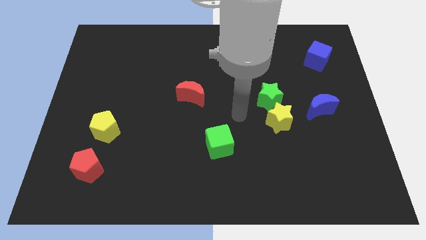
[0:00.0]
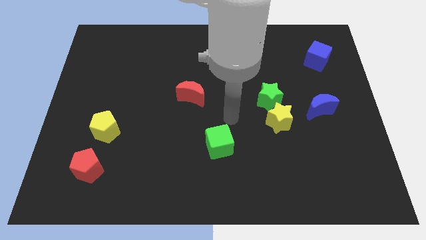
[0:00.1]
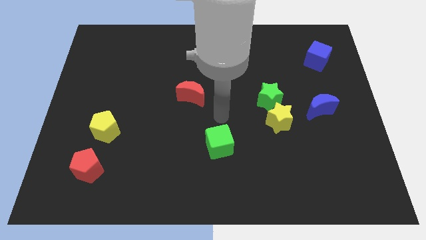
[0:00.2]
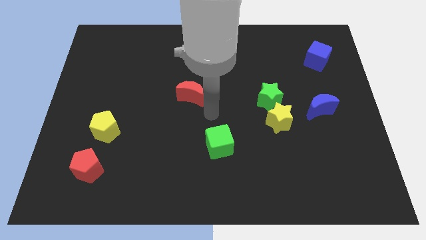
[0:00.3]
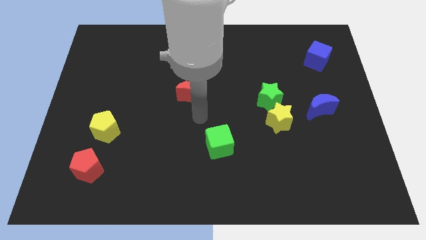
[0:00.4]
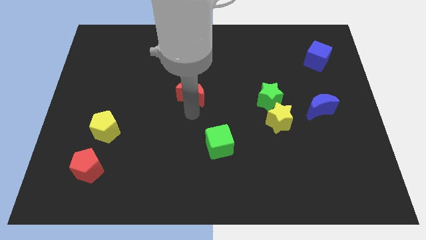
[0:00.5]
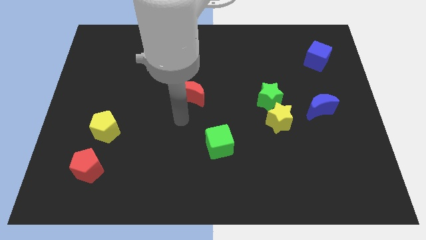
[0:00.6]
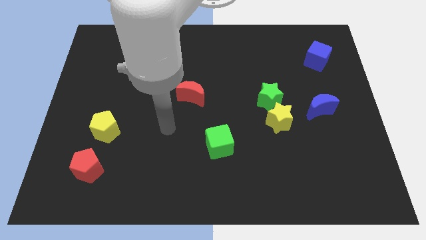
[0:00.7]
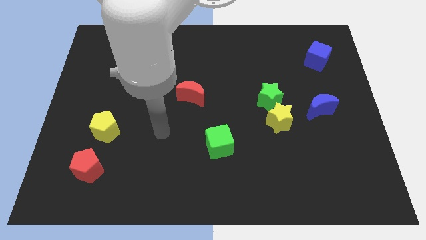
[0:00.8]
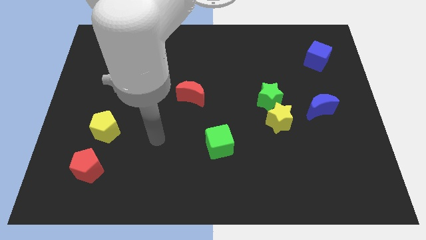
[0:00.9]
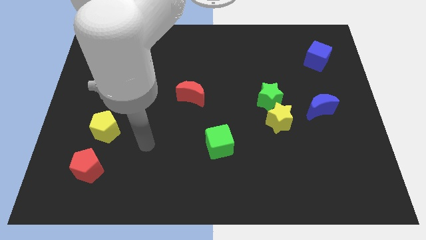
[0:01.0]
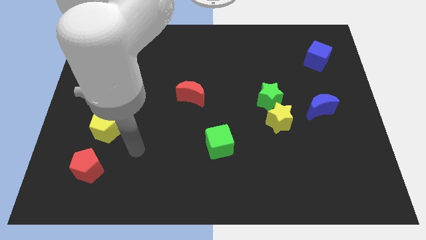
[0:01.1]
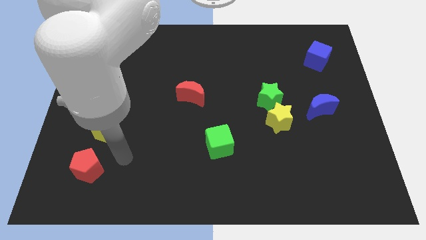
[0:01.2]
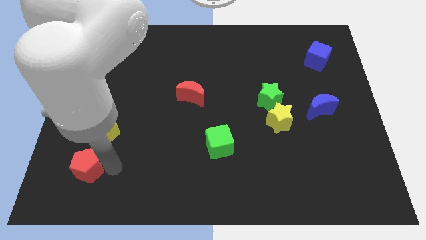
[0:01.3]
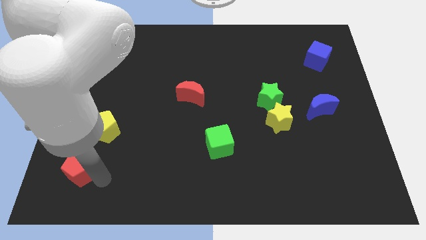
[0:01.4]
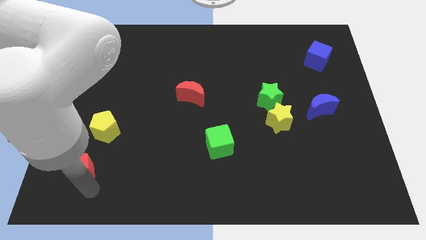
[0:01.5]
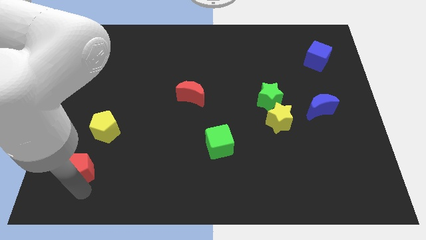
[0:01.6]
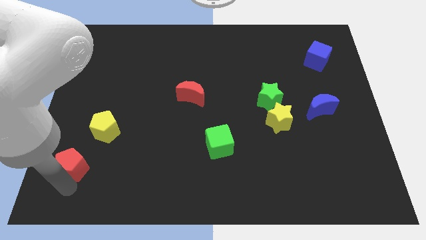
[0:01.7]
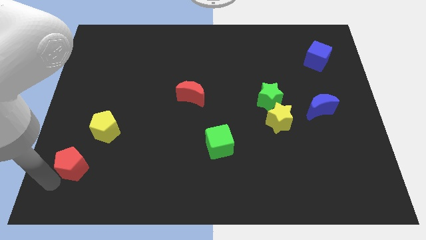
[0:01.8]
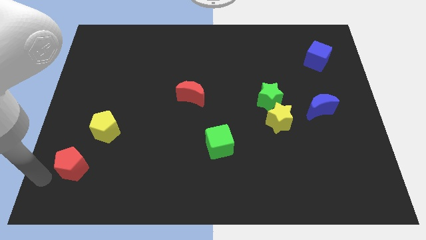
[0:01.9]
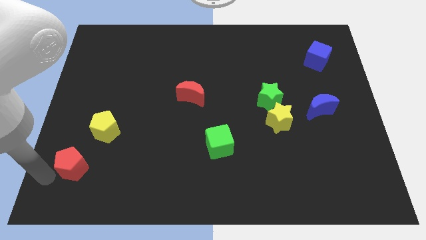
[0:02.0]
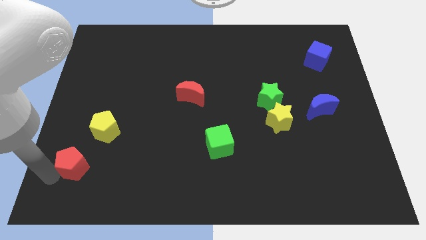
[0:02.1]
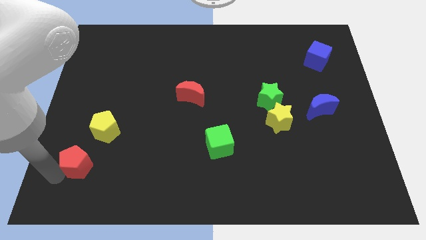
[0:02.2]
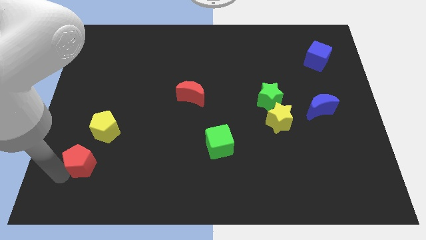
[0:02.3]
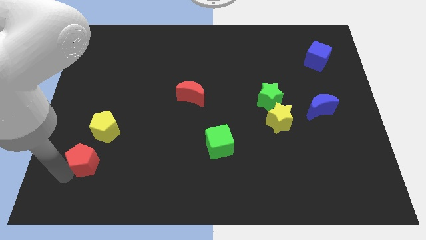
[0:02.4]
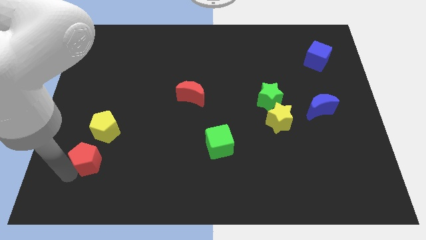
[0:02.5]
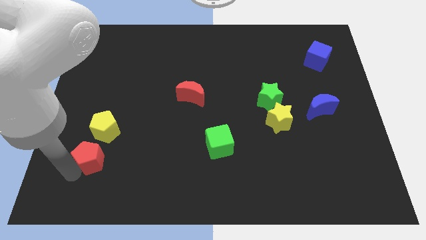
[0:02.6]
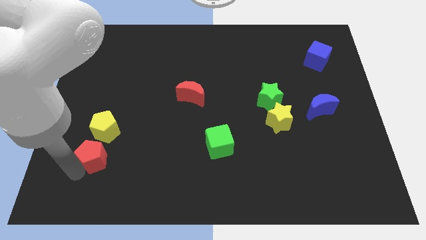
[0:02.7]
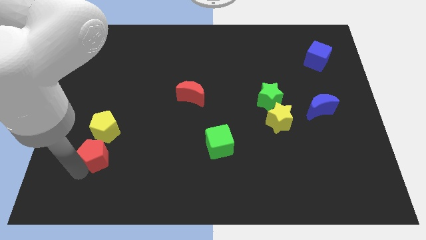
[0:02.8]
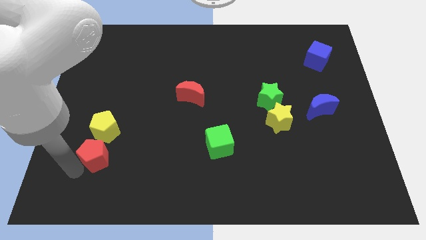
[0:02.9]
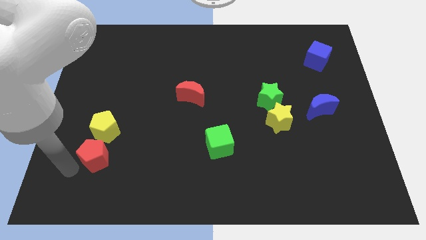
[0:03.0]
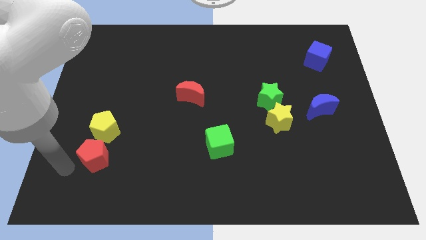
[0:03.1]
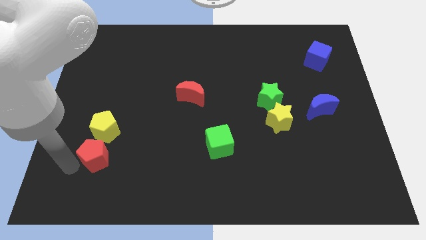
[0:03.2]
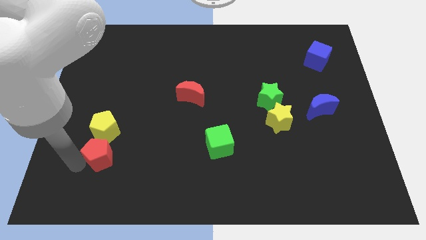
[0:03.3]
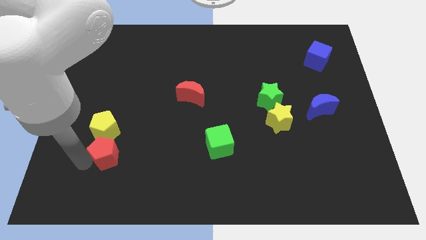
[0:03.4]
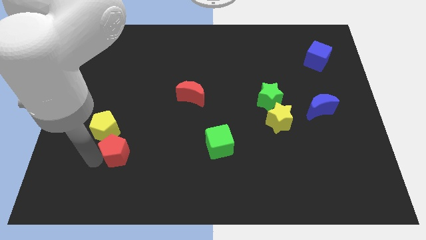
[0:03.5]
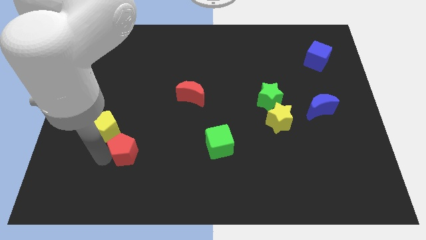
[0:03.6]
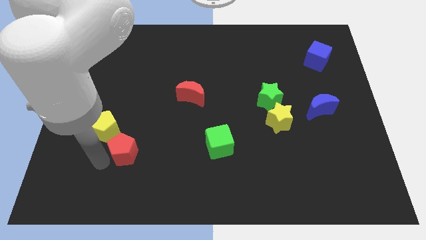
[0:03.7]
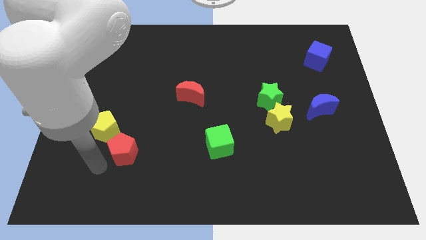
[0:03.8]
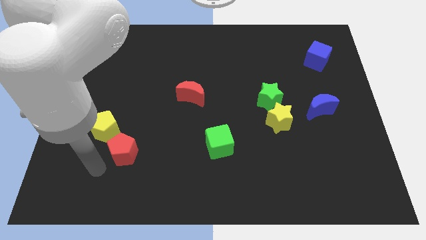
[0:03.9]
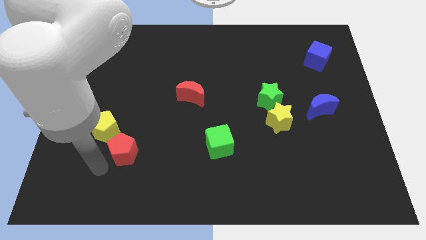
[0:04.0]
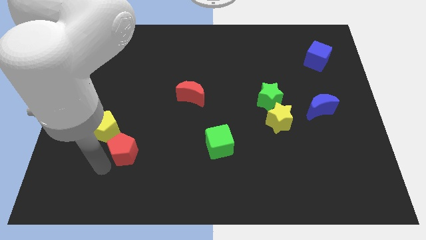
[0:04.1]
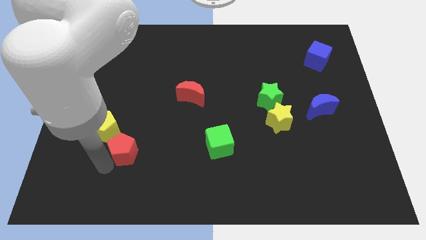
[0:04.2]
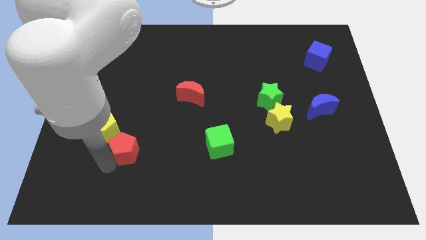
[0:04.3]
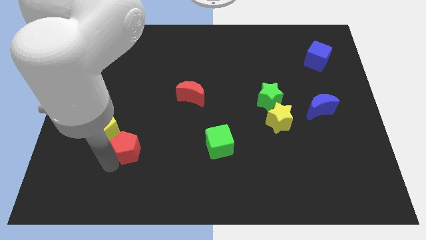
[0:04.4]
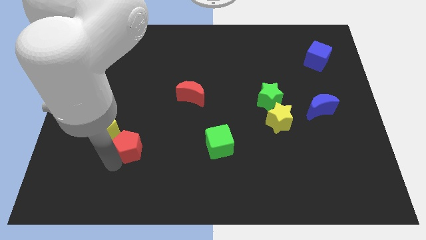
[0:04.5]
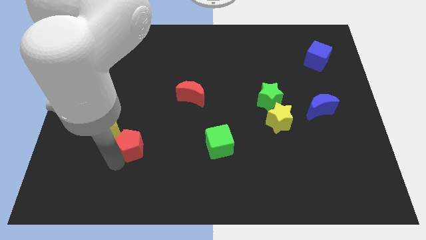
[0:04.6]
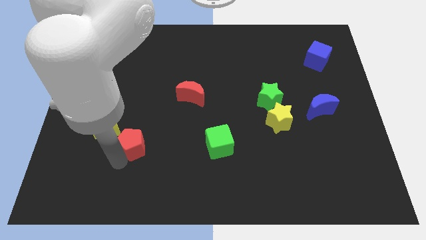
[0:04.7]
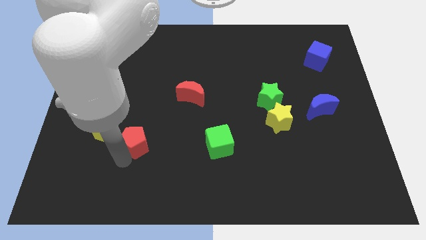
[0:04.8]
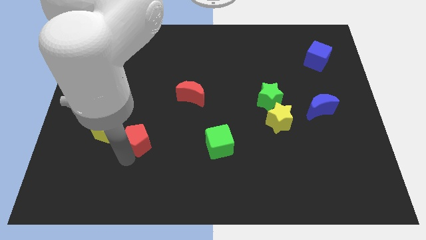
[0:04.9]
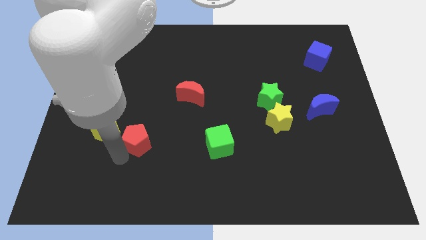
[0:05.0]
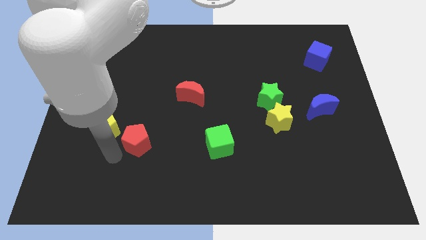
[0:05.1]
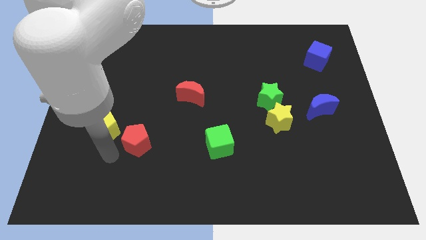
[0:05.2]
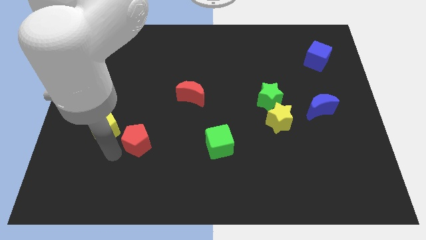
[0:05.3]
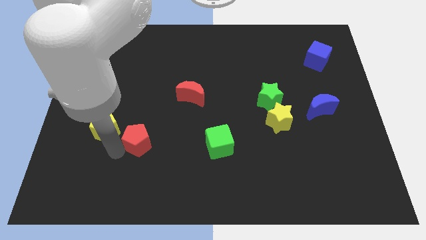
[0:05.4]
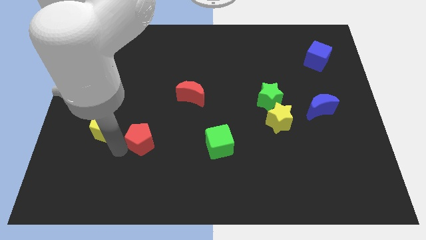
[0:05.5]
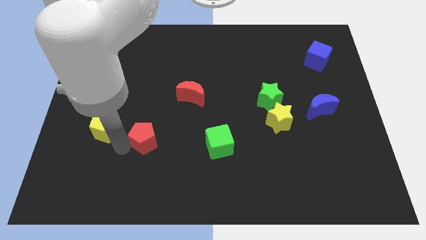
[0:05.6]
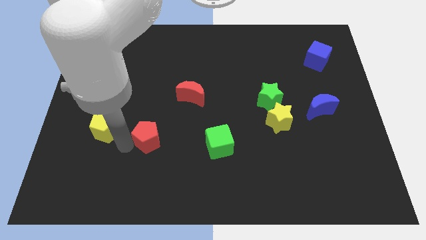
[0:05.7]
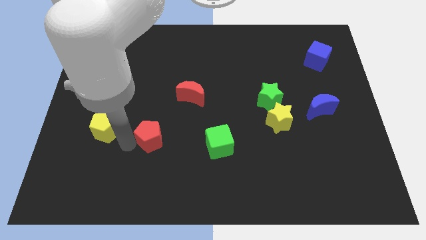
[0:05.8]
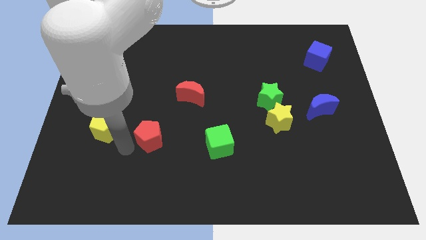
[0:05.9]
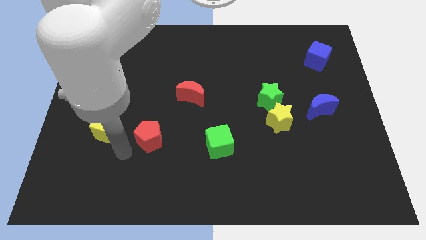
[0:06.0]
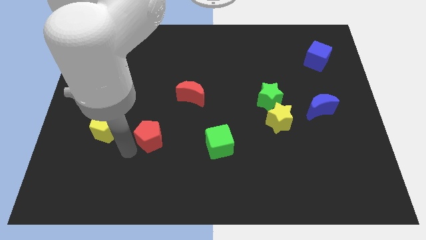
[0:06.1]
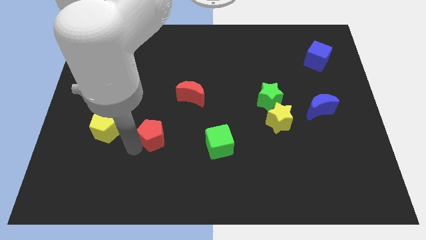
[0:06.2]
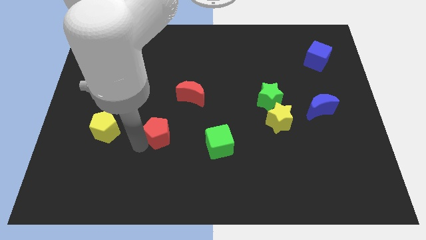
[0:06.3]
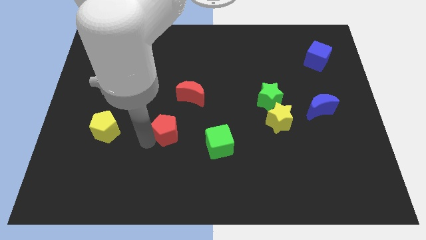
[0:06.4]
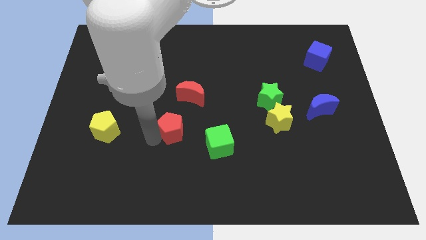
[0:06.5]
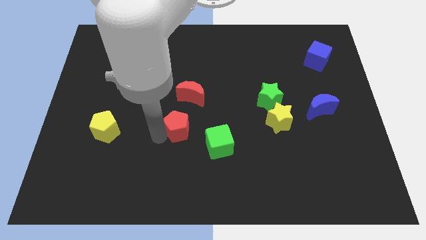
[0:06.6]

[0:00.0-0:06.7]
slide the red pentagon to the middle

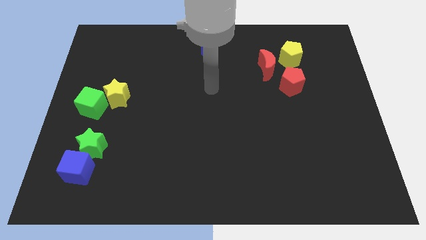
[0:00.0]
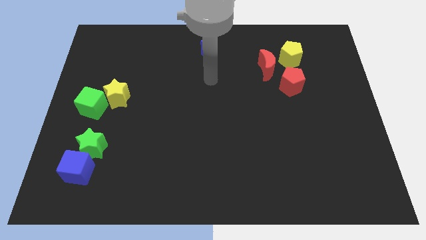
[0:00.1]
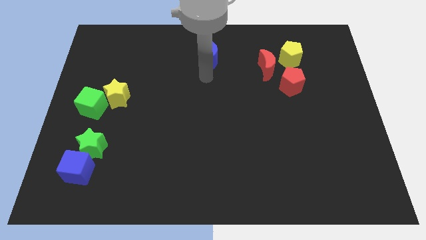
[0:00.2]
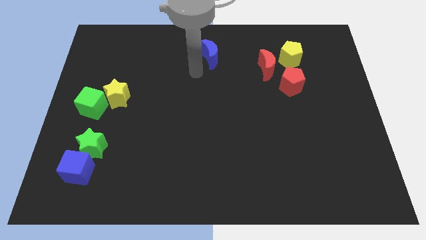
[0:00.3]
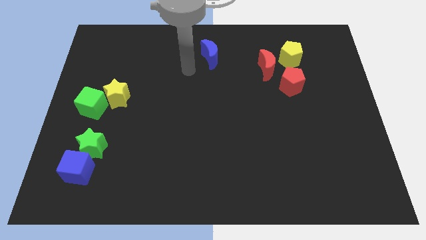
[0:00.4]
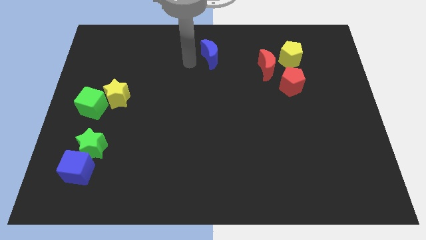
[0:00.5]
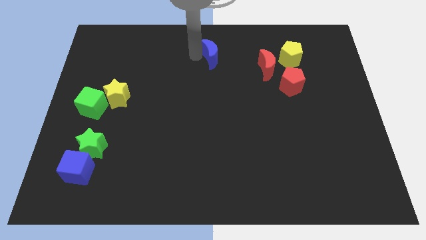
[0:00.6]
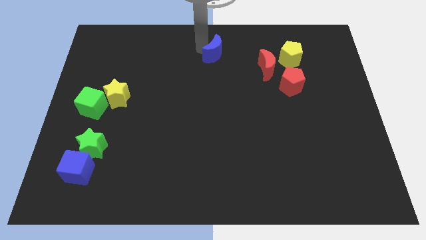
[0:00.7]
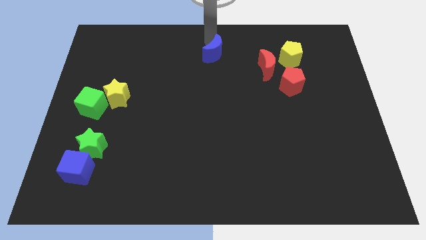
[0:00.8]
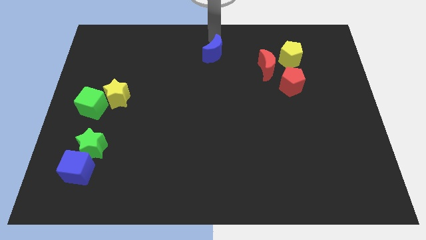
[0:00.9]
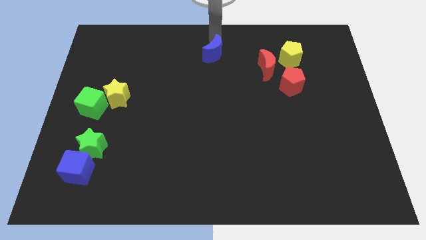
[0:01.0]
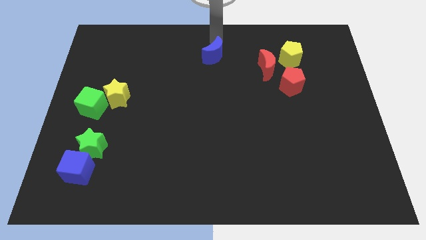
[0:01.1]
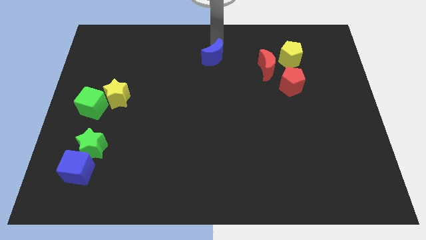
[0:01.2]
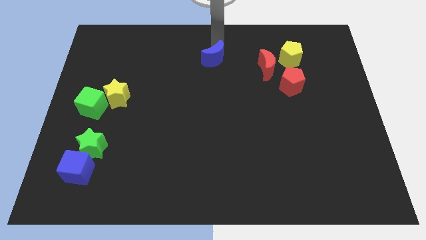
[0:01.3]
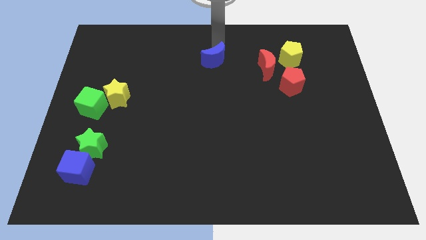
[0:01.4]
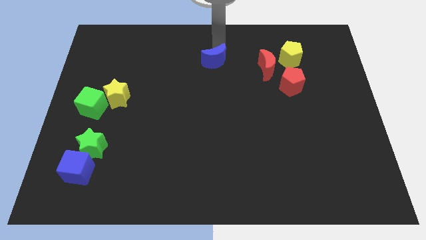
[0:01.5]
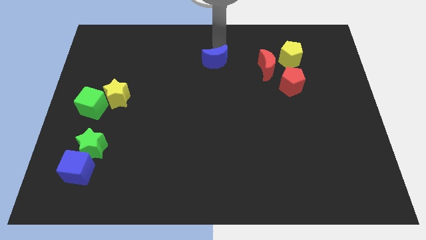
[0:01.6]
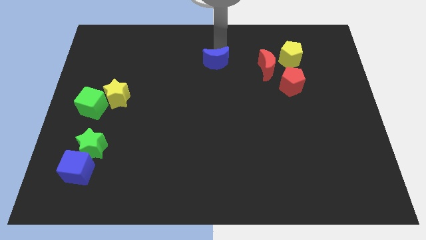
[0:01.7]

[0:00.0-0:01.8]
slide the blue moon to the middle
